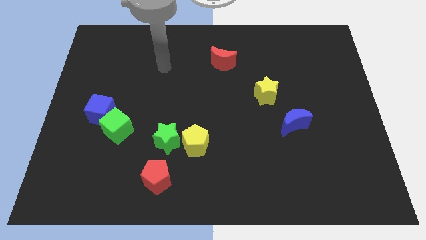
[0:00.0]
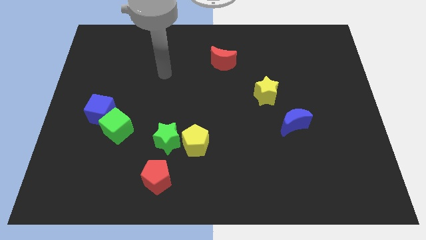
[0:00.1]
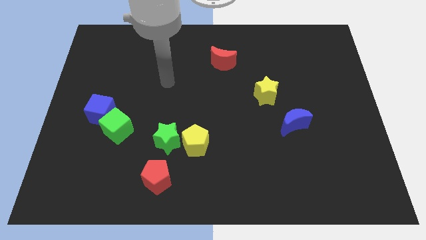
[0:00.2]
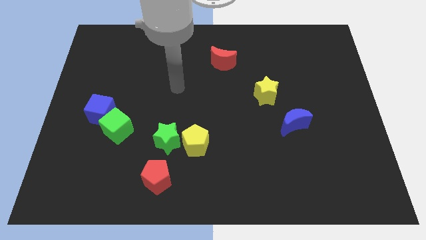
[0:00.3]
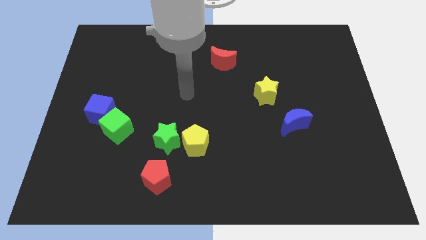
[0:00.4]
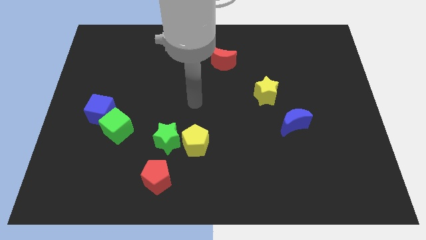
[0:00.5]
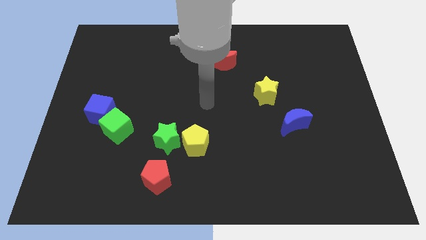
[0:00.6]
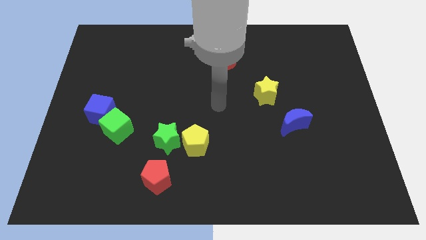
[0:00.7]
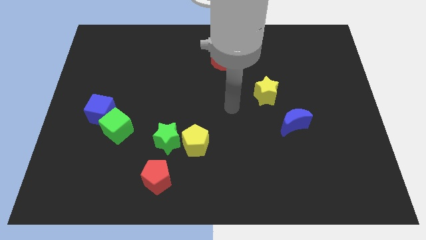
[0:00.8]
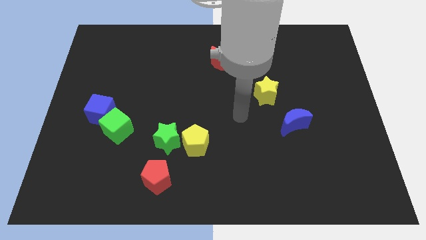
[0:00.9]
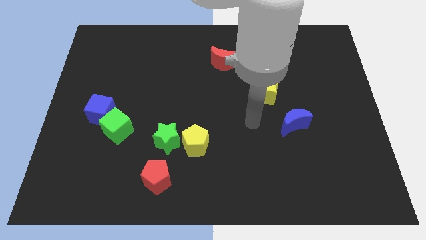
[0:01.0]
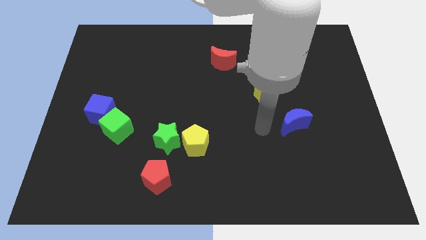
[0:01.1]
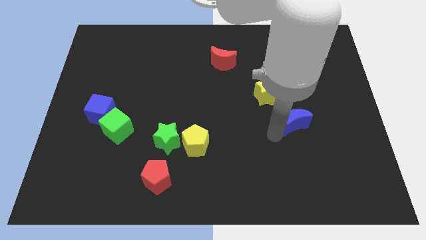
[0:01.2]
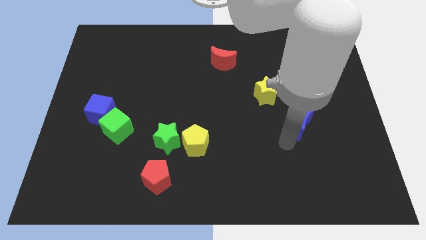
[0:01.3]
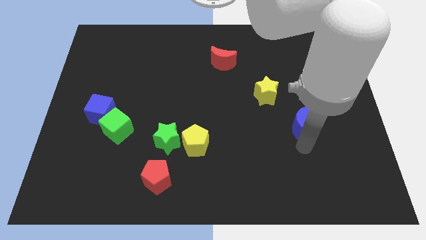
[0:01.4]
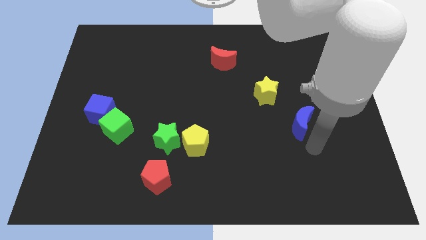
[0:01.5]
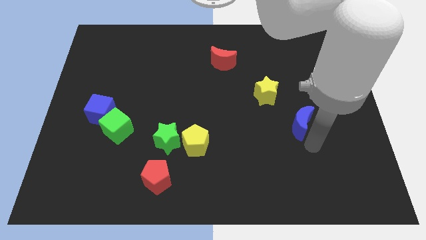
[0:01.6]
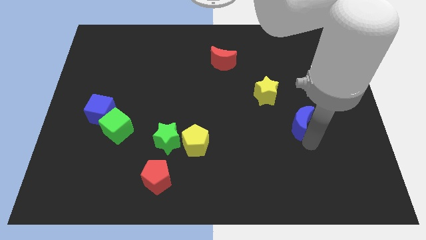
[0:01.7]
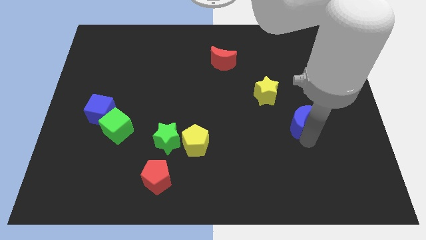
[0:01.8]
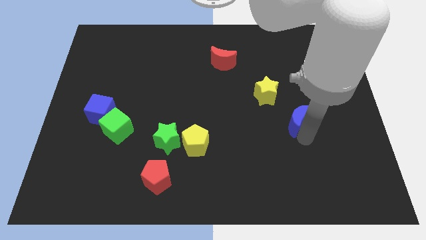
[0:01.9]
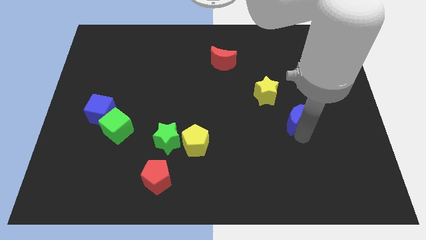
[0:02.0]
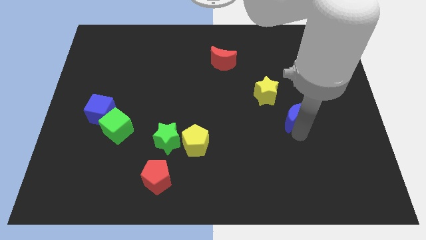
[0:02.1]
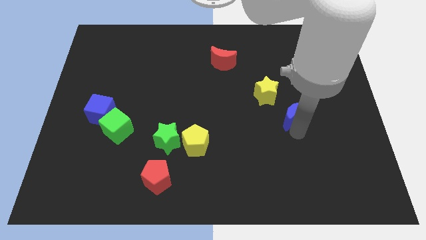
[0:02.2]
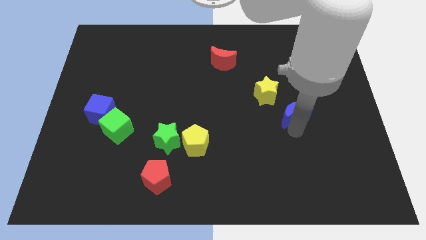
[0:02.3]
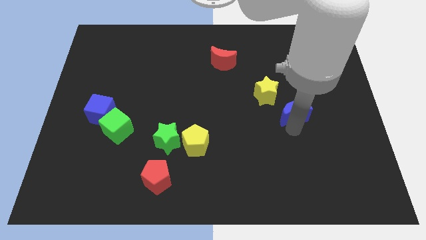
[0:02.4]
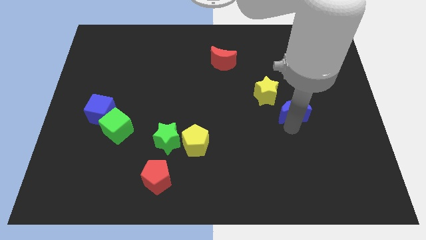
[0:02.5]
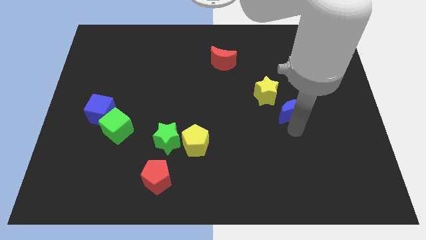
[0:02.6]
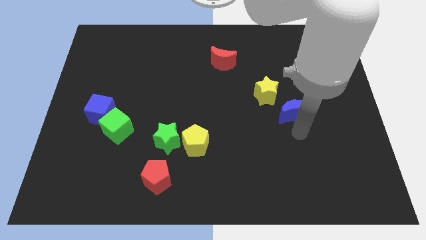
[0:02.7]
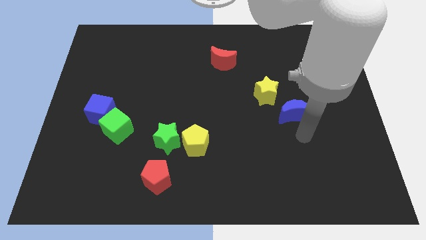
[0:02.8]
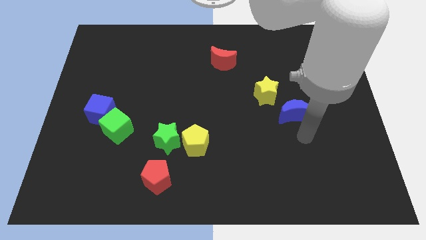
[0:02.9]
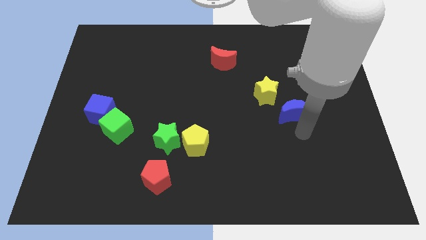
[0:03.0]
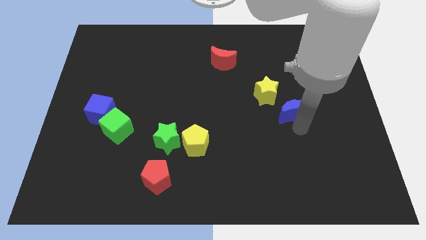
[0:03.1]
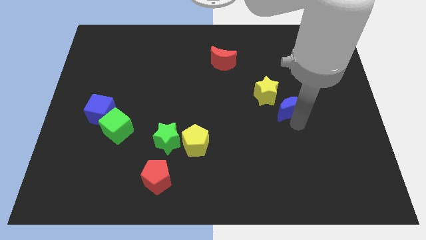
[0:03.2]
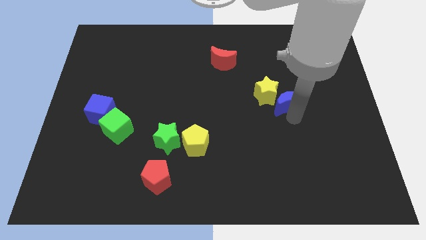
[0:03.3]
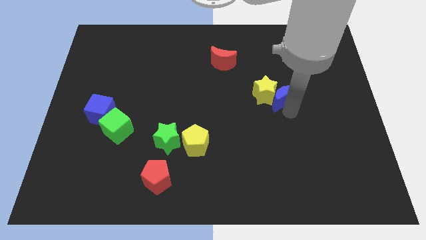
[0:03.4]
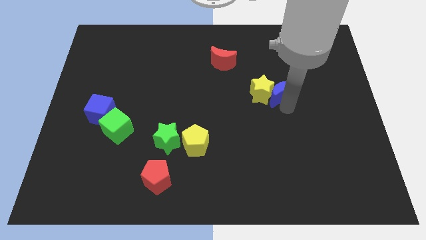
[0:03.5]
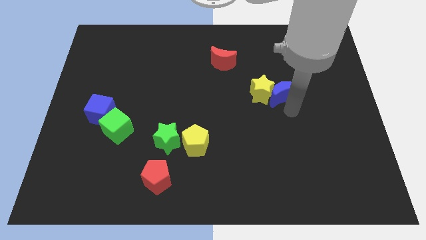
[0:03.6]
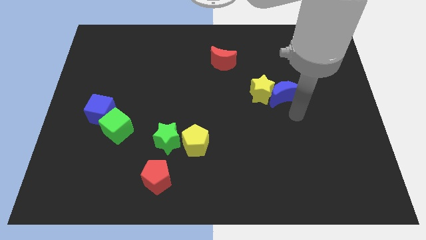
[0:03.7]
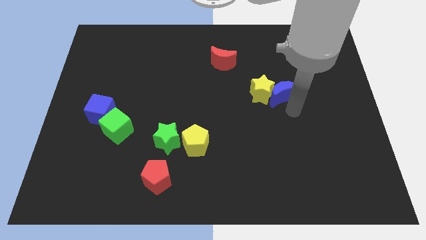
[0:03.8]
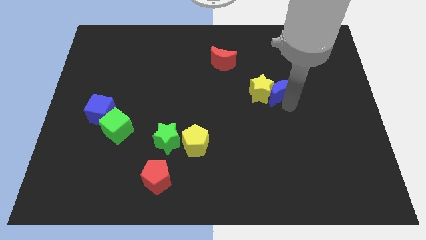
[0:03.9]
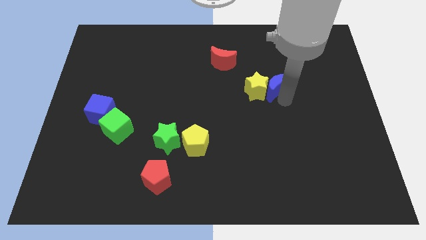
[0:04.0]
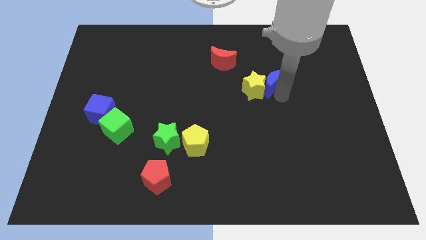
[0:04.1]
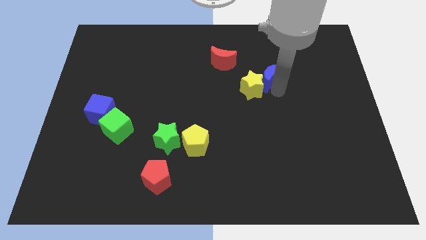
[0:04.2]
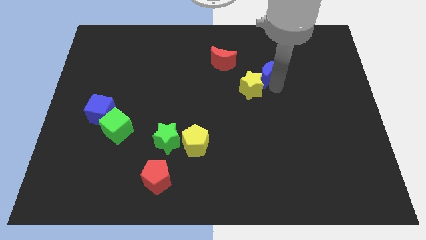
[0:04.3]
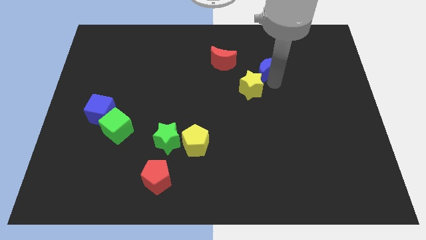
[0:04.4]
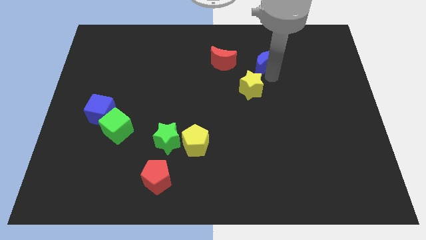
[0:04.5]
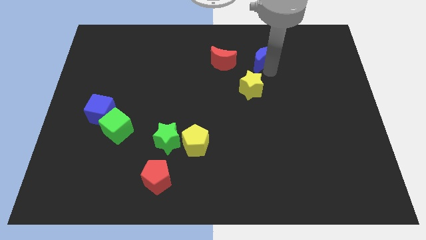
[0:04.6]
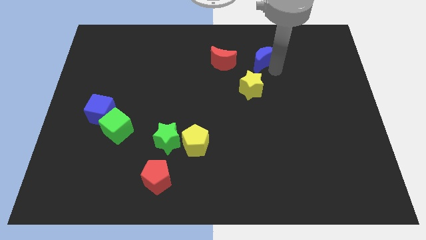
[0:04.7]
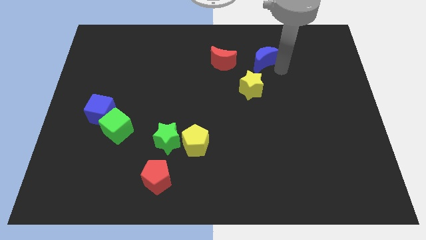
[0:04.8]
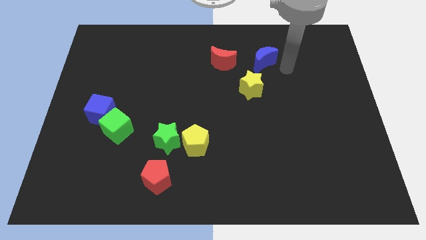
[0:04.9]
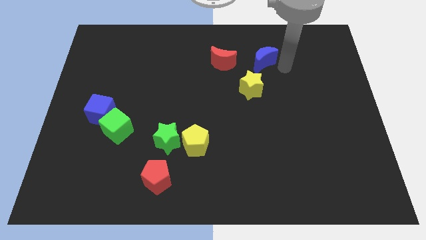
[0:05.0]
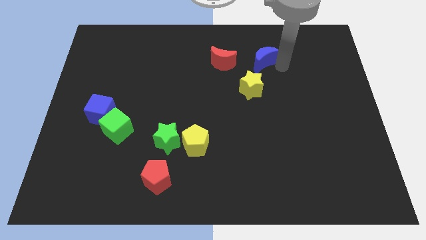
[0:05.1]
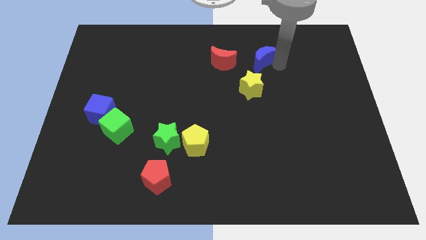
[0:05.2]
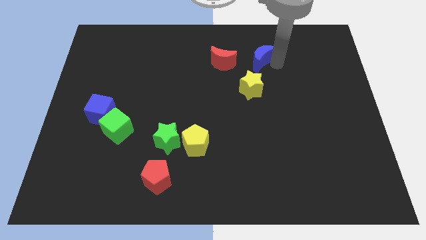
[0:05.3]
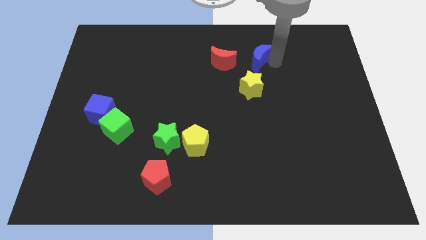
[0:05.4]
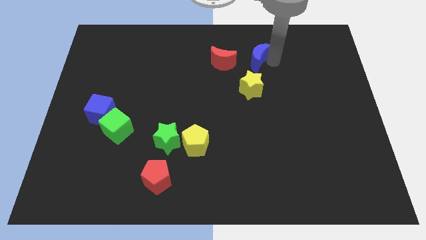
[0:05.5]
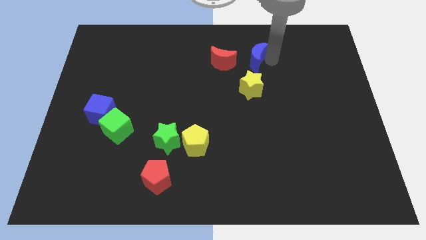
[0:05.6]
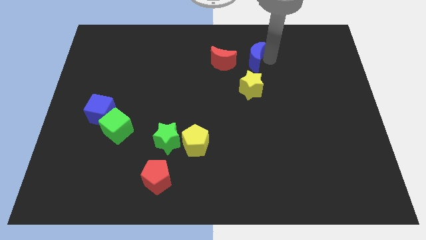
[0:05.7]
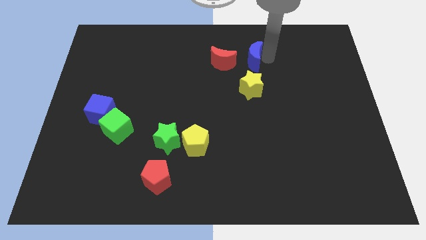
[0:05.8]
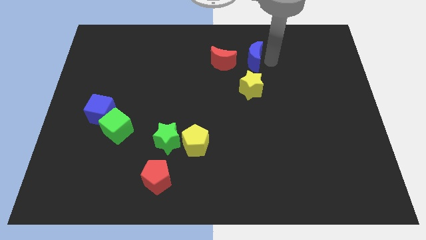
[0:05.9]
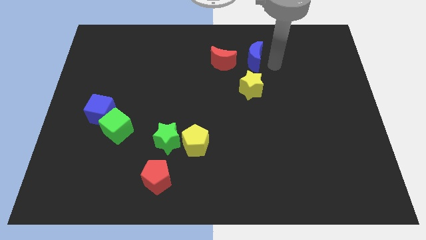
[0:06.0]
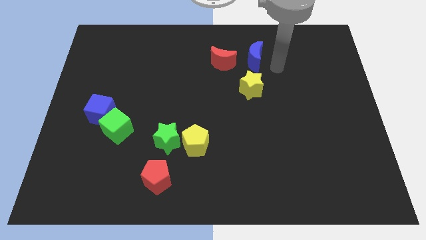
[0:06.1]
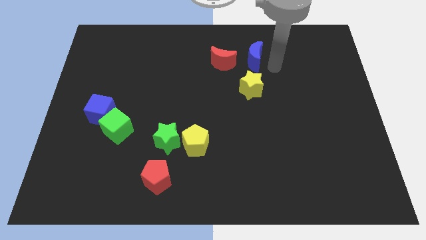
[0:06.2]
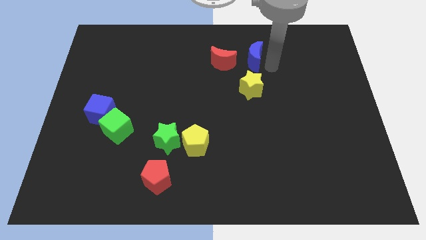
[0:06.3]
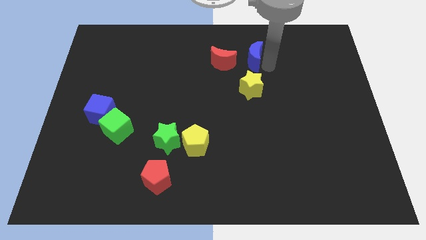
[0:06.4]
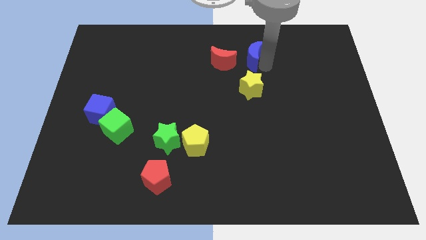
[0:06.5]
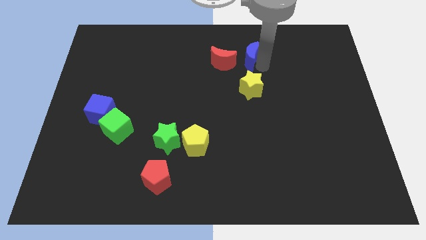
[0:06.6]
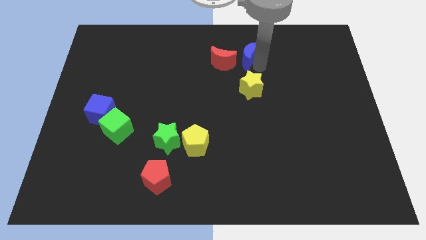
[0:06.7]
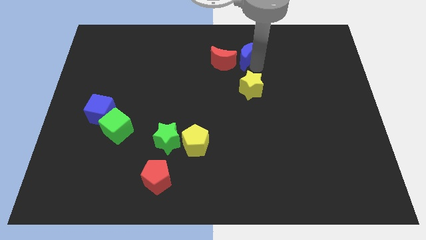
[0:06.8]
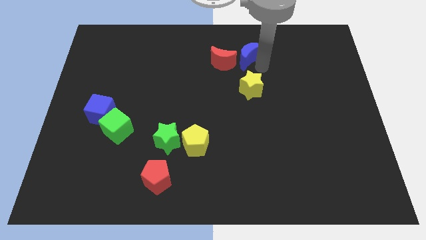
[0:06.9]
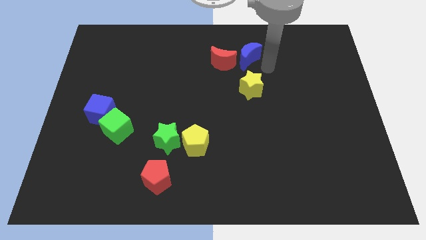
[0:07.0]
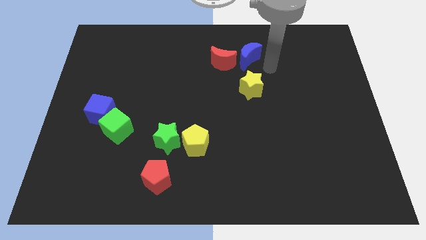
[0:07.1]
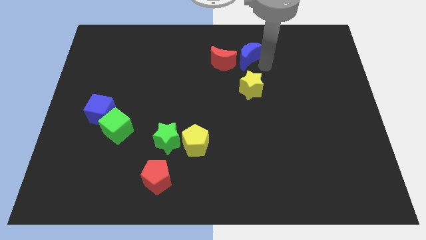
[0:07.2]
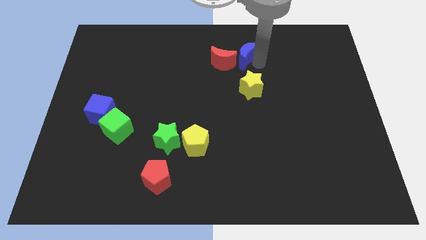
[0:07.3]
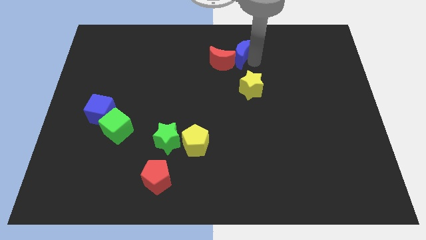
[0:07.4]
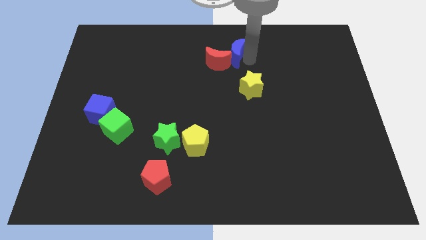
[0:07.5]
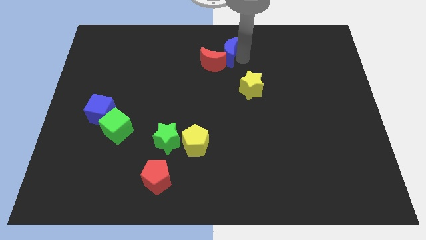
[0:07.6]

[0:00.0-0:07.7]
put the blue moon to the towards your base
